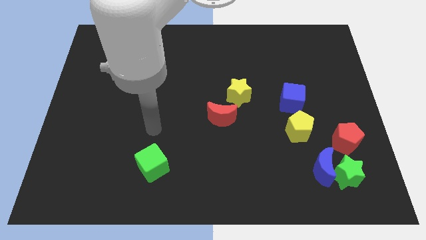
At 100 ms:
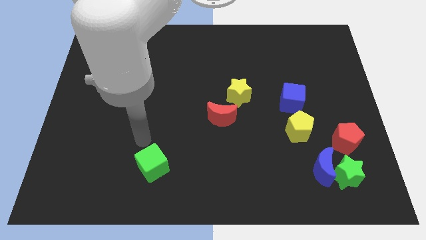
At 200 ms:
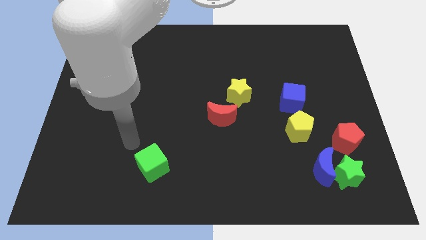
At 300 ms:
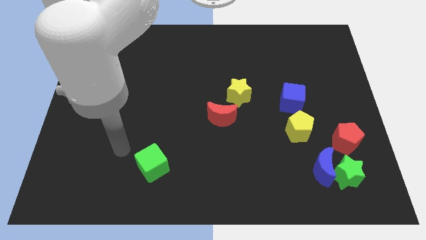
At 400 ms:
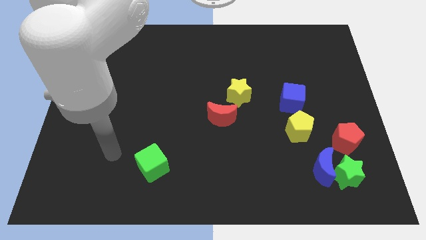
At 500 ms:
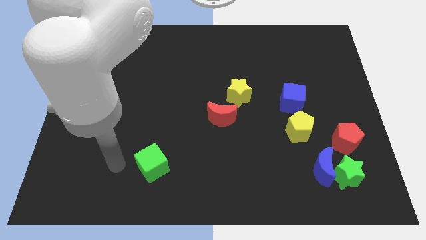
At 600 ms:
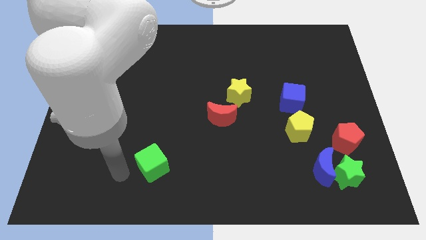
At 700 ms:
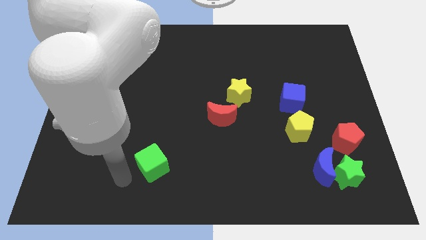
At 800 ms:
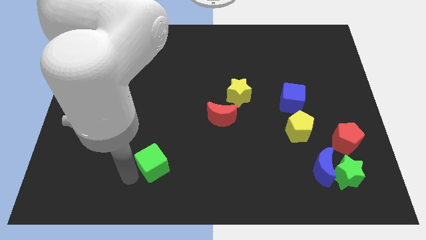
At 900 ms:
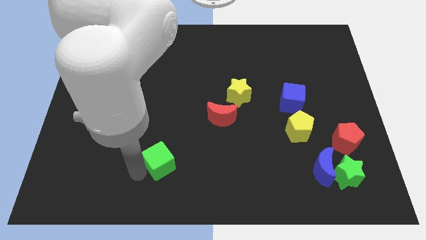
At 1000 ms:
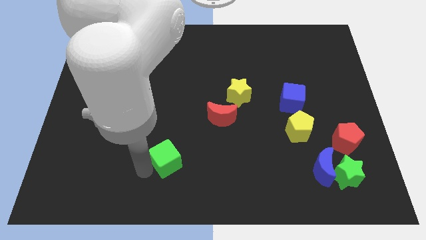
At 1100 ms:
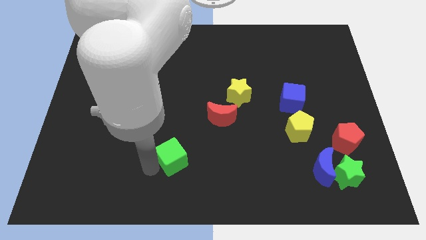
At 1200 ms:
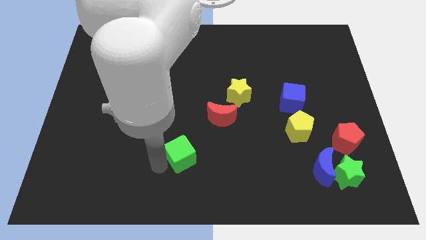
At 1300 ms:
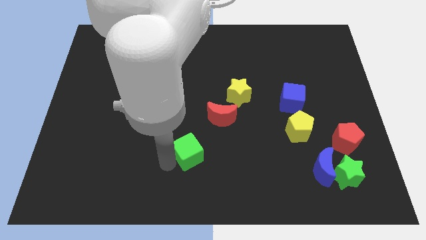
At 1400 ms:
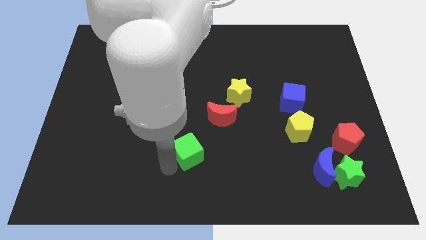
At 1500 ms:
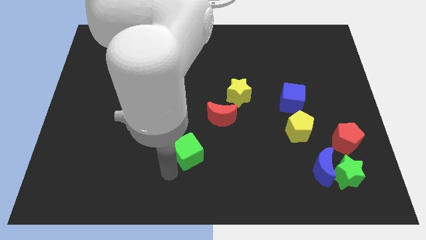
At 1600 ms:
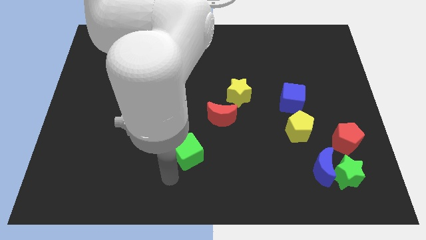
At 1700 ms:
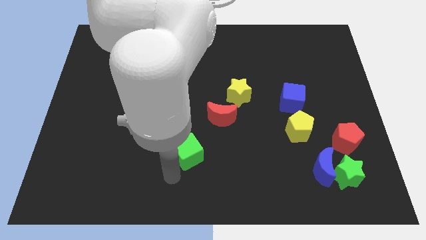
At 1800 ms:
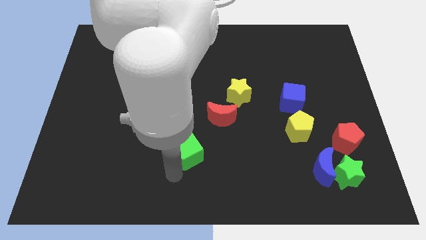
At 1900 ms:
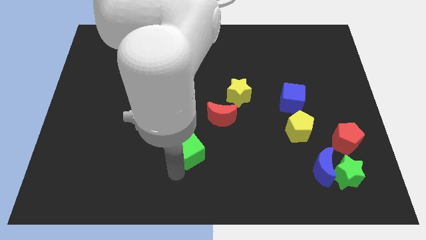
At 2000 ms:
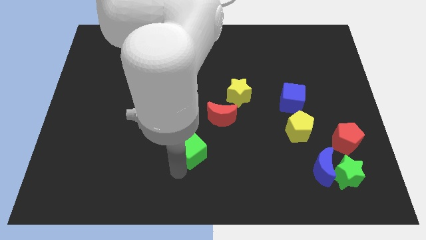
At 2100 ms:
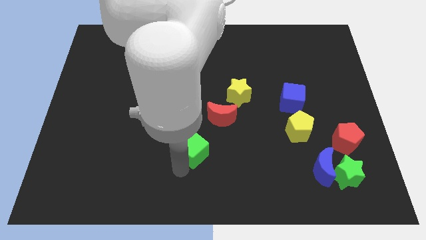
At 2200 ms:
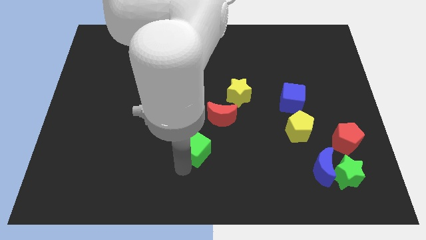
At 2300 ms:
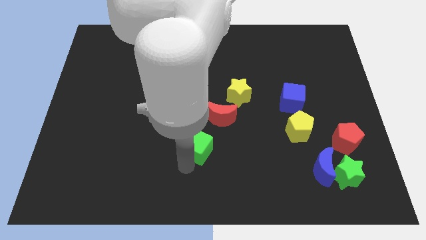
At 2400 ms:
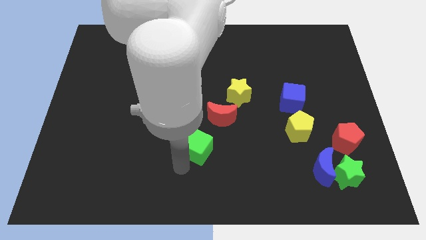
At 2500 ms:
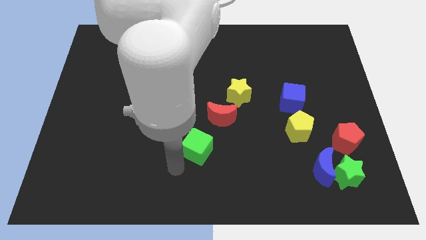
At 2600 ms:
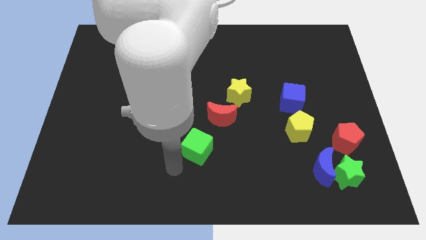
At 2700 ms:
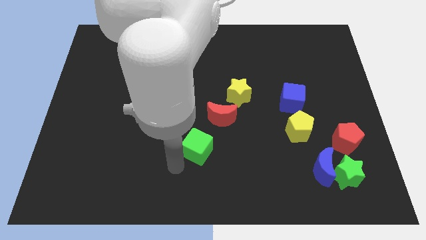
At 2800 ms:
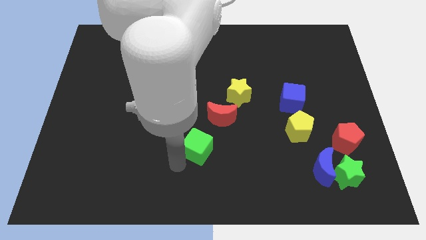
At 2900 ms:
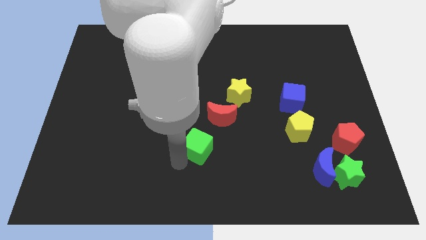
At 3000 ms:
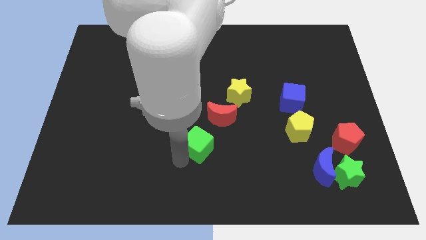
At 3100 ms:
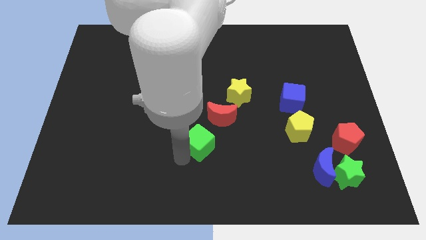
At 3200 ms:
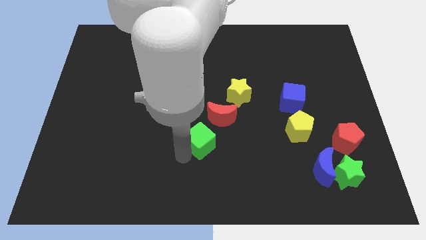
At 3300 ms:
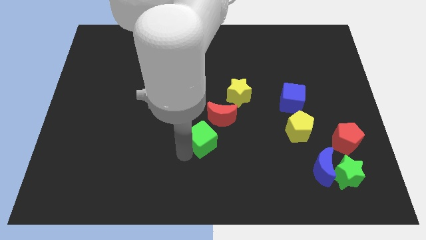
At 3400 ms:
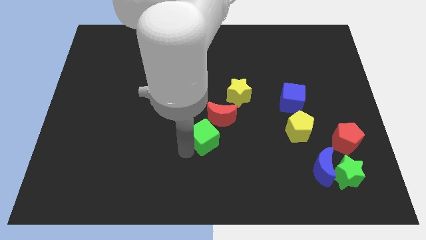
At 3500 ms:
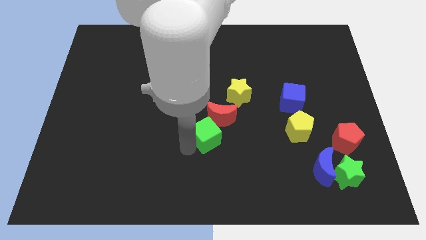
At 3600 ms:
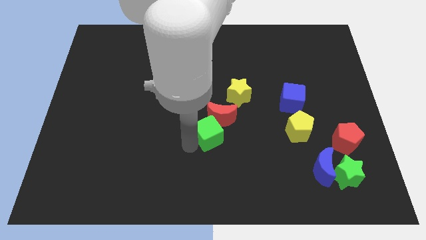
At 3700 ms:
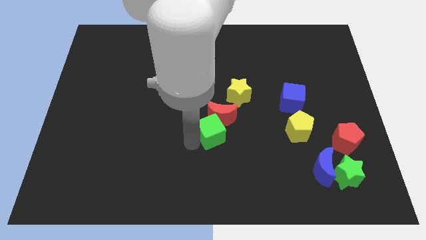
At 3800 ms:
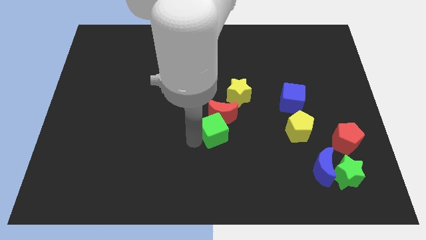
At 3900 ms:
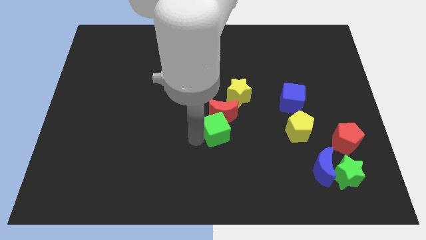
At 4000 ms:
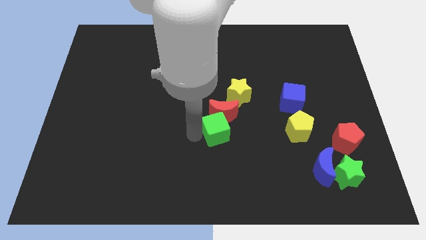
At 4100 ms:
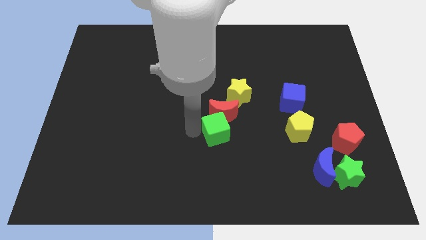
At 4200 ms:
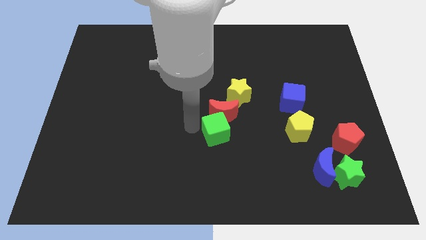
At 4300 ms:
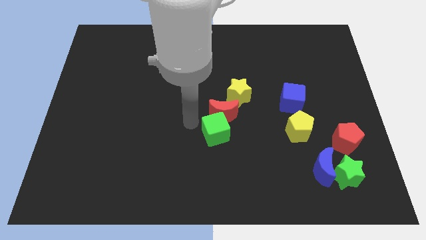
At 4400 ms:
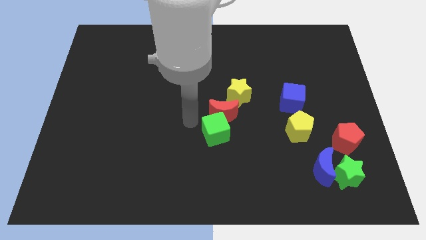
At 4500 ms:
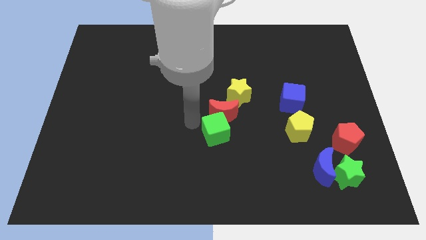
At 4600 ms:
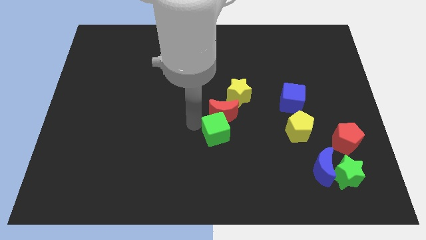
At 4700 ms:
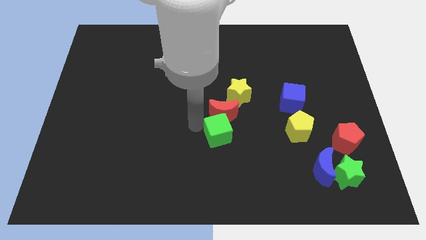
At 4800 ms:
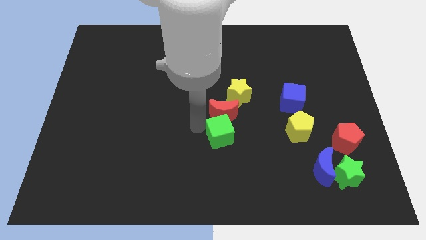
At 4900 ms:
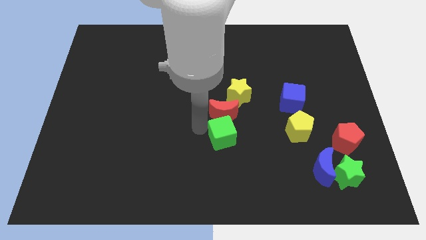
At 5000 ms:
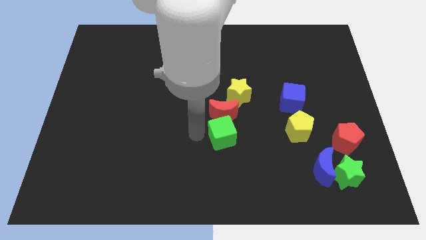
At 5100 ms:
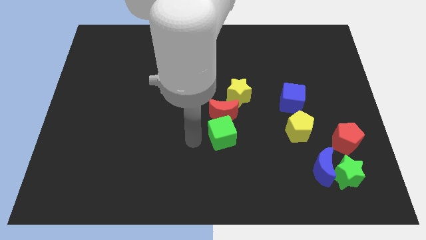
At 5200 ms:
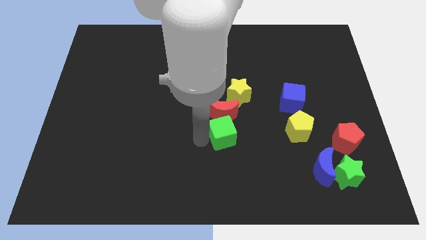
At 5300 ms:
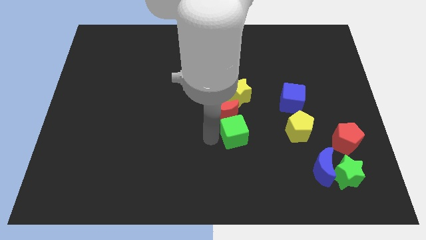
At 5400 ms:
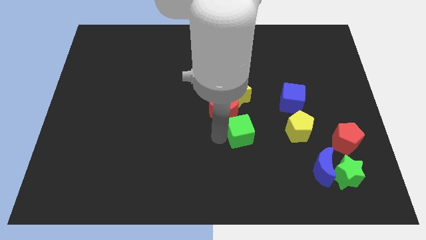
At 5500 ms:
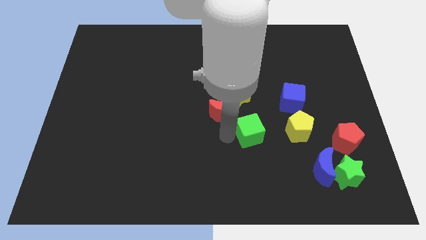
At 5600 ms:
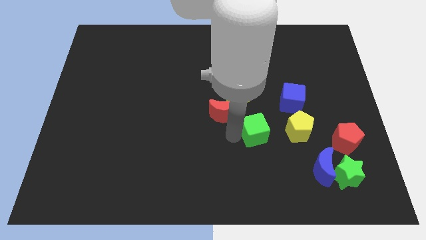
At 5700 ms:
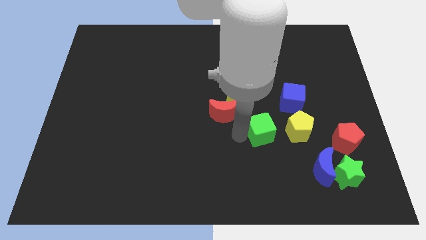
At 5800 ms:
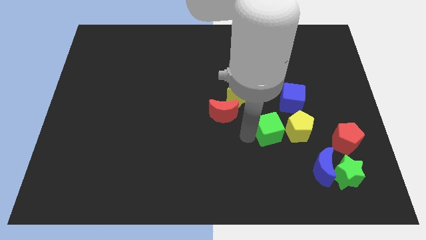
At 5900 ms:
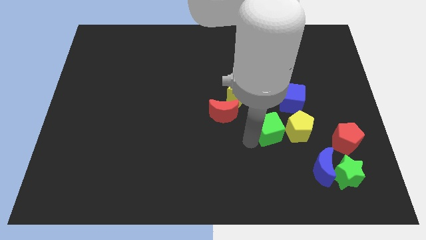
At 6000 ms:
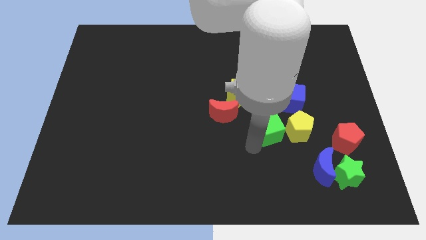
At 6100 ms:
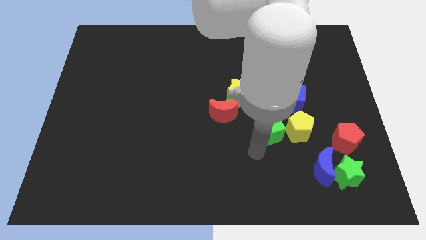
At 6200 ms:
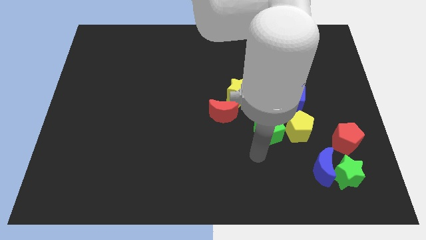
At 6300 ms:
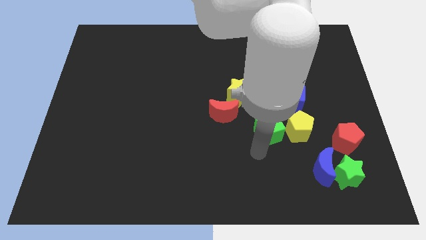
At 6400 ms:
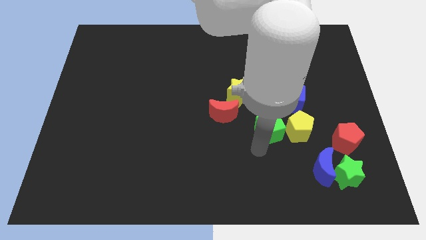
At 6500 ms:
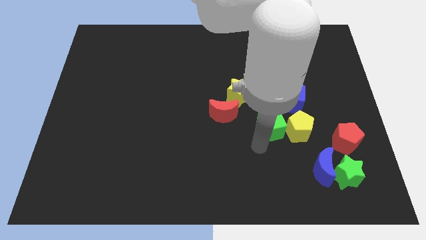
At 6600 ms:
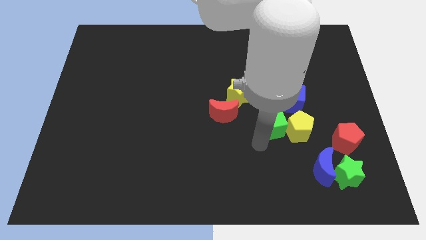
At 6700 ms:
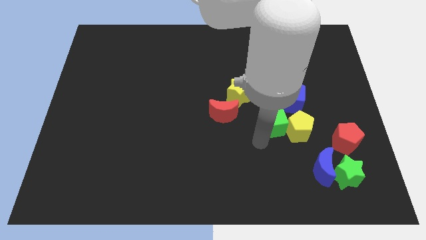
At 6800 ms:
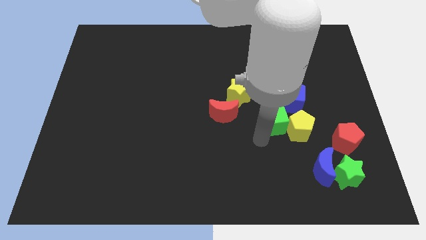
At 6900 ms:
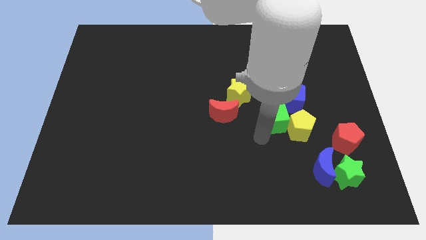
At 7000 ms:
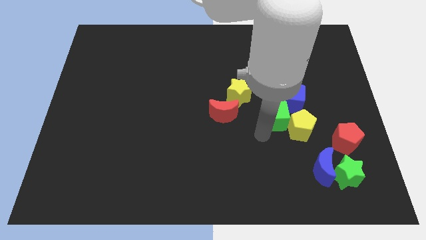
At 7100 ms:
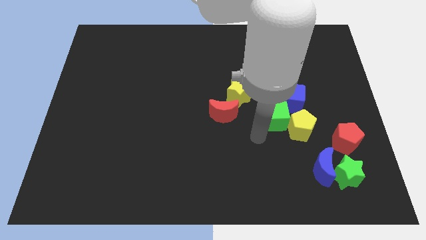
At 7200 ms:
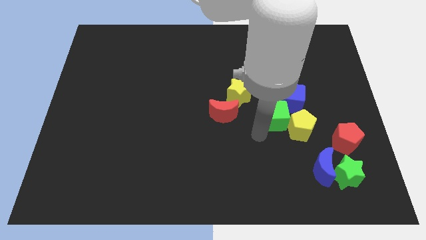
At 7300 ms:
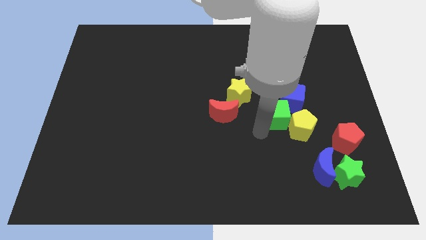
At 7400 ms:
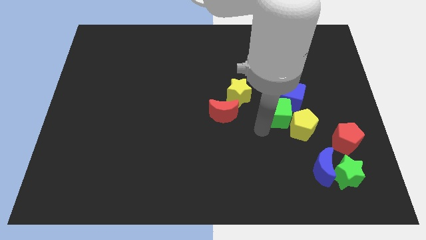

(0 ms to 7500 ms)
put the green cube close to the blue cube
